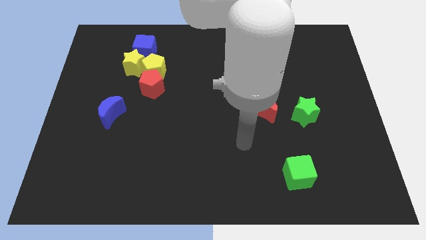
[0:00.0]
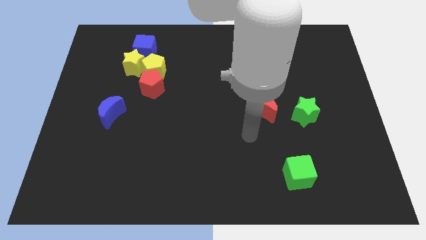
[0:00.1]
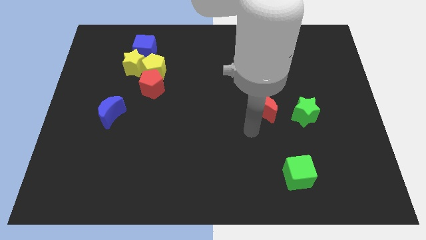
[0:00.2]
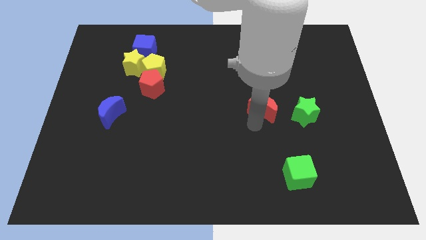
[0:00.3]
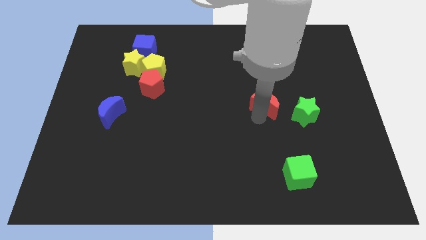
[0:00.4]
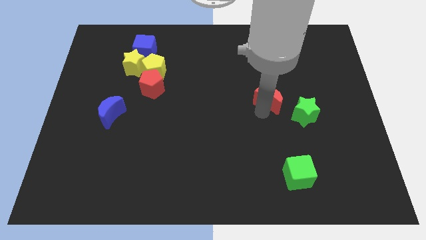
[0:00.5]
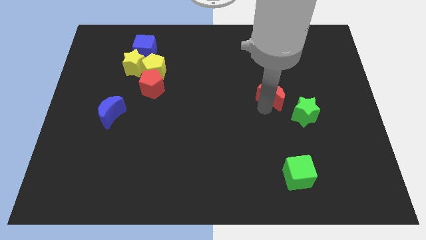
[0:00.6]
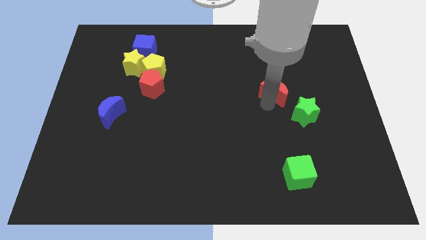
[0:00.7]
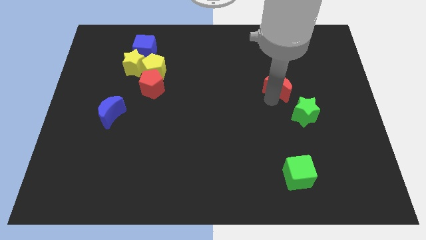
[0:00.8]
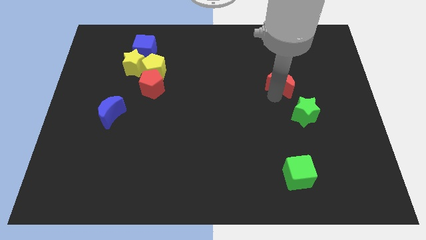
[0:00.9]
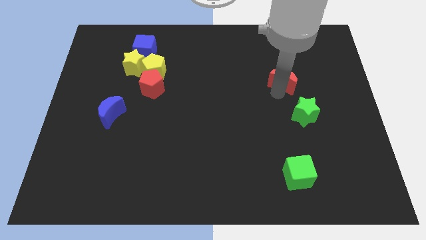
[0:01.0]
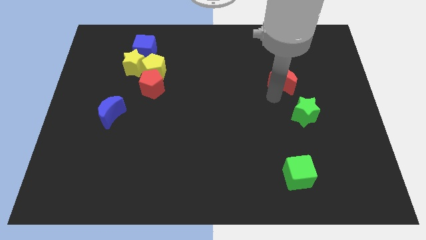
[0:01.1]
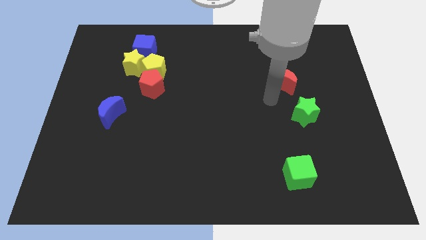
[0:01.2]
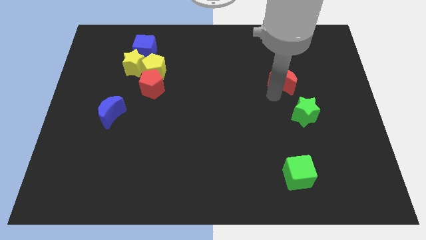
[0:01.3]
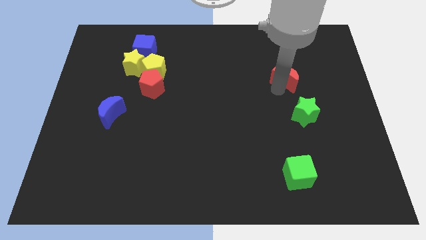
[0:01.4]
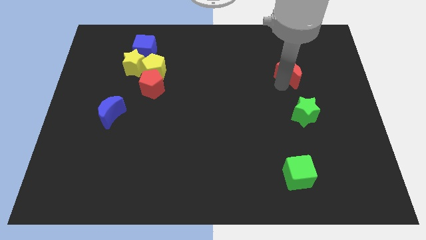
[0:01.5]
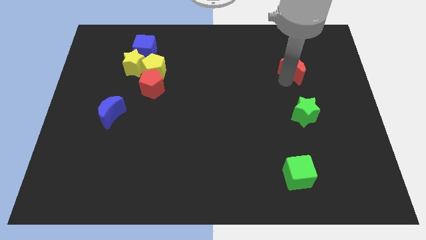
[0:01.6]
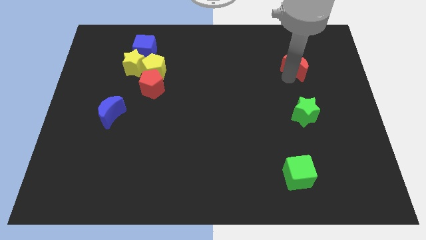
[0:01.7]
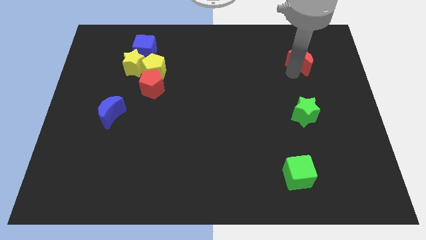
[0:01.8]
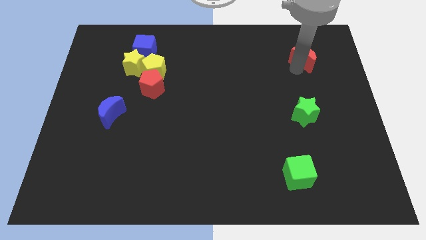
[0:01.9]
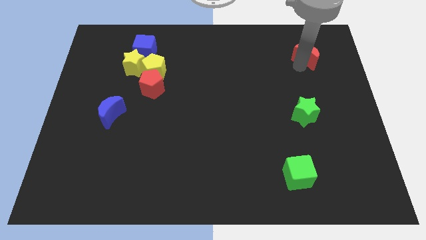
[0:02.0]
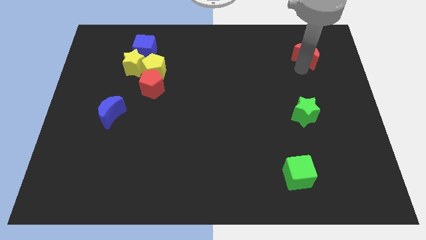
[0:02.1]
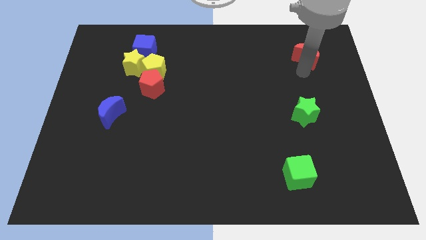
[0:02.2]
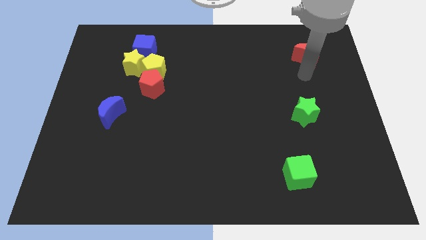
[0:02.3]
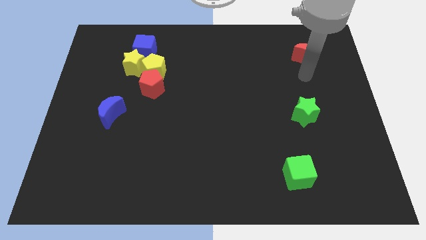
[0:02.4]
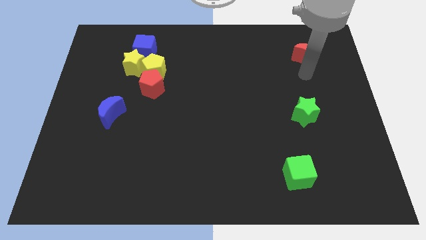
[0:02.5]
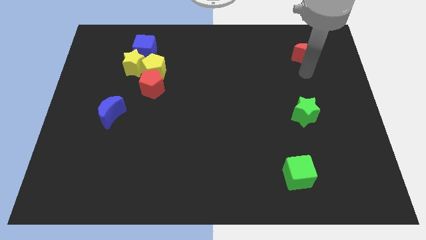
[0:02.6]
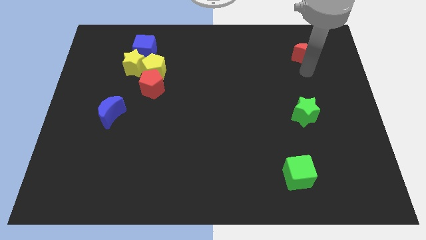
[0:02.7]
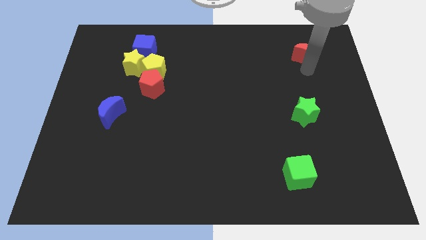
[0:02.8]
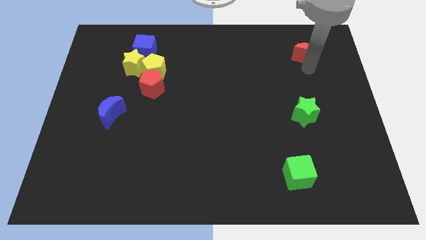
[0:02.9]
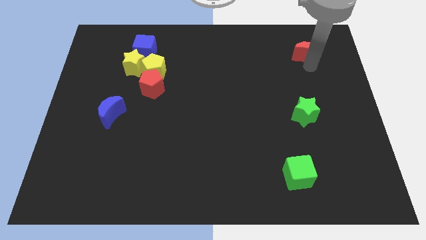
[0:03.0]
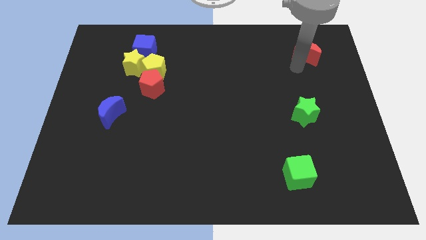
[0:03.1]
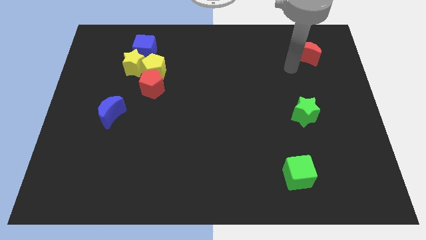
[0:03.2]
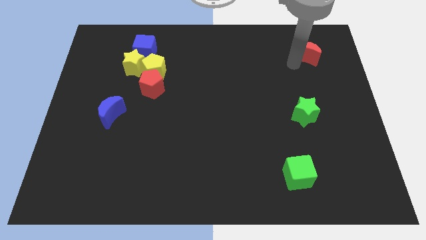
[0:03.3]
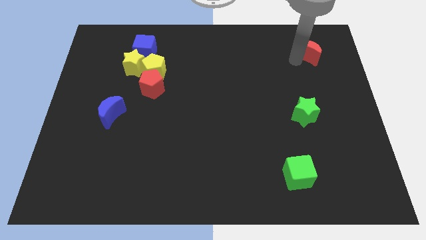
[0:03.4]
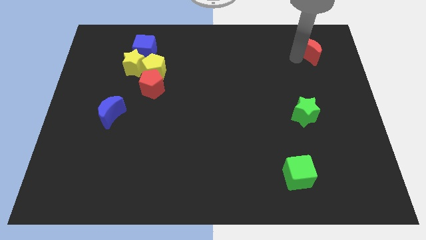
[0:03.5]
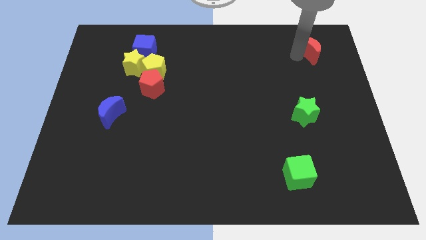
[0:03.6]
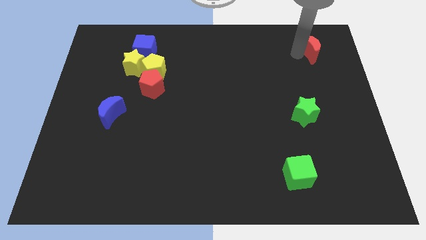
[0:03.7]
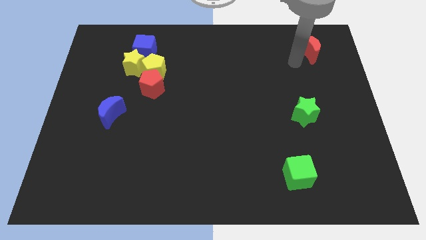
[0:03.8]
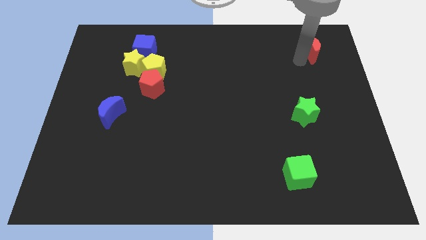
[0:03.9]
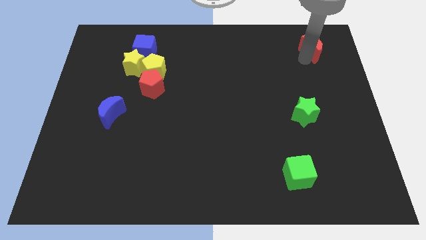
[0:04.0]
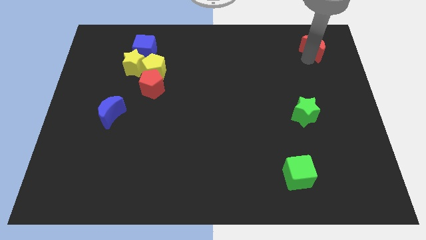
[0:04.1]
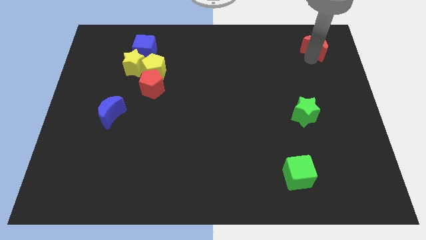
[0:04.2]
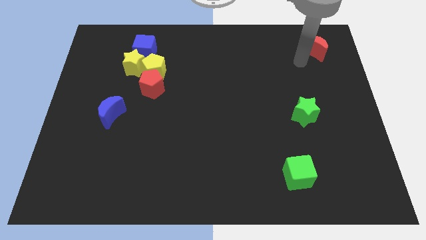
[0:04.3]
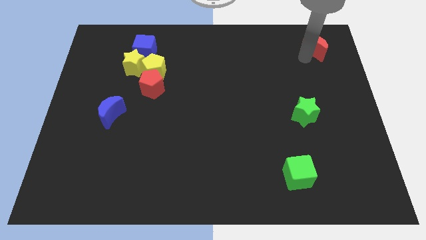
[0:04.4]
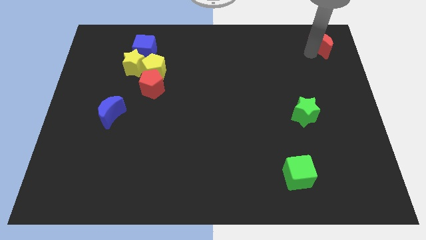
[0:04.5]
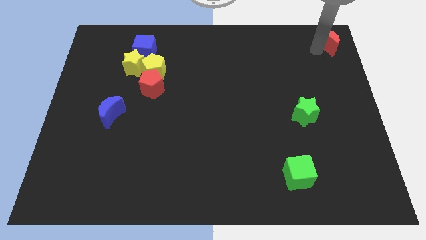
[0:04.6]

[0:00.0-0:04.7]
put the red moon to the top right corner

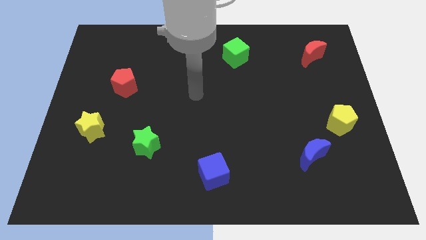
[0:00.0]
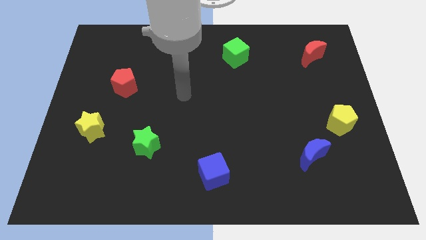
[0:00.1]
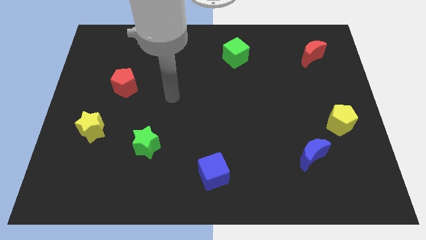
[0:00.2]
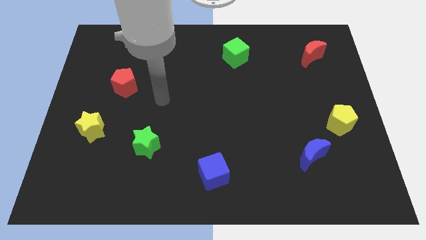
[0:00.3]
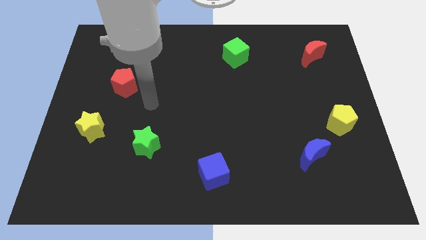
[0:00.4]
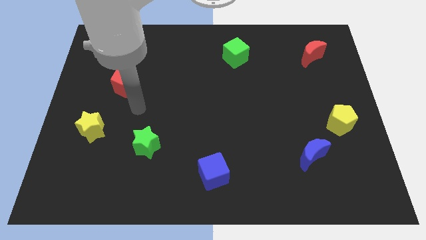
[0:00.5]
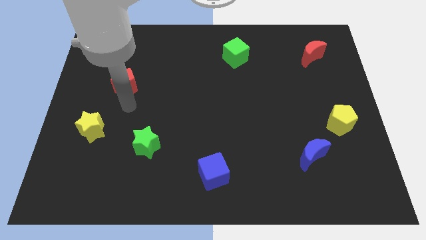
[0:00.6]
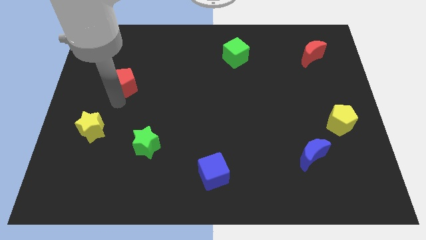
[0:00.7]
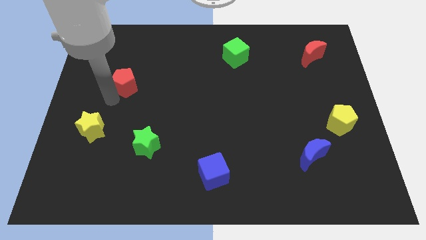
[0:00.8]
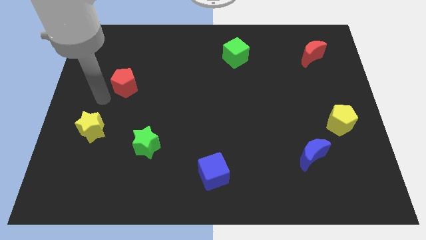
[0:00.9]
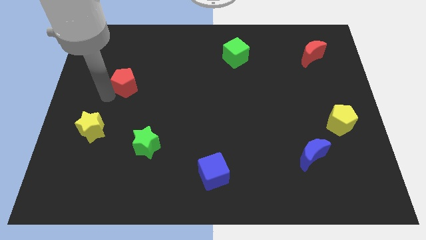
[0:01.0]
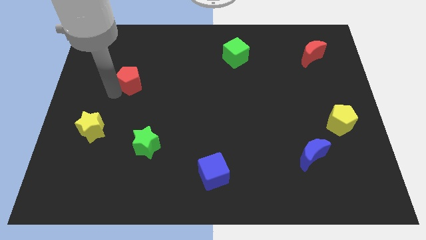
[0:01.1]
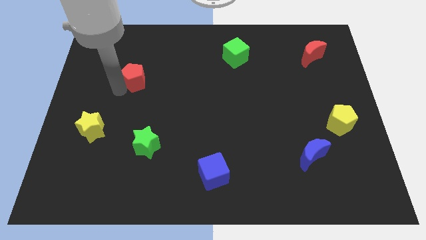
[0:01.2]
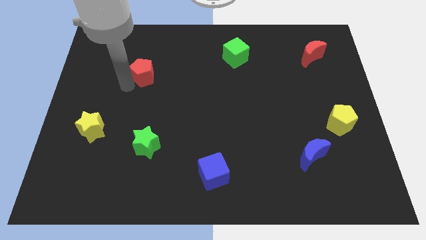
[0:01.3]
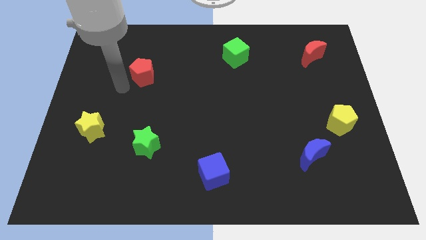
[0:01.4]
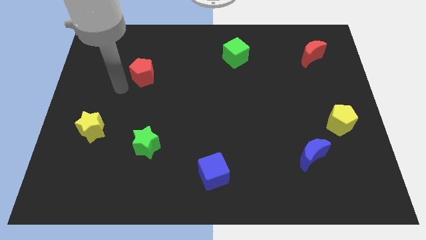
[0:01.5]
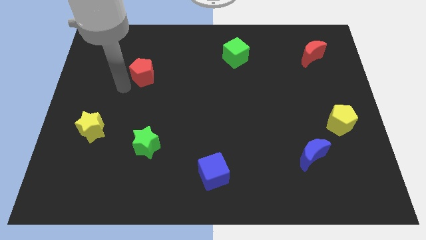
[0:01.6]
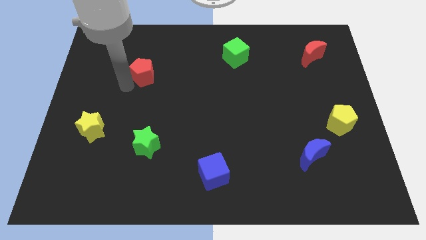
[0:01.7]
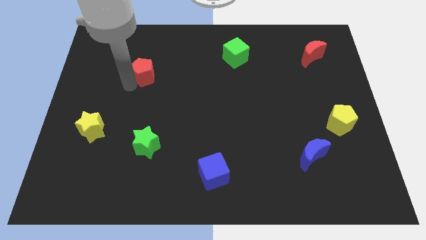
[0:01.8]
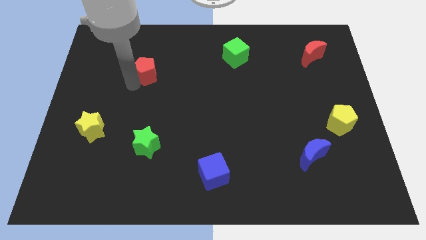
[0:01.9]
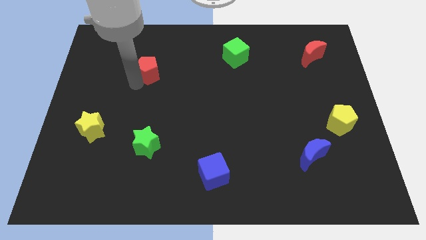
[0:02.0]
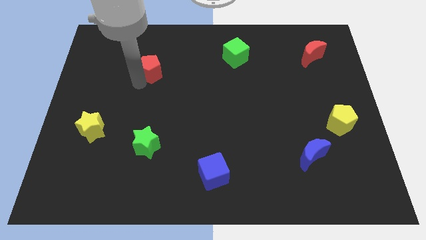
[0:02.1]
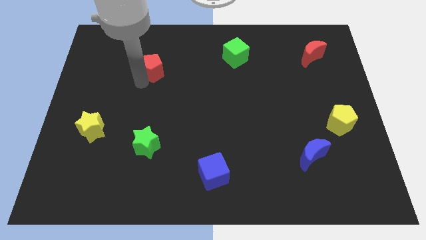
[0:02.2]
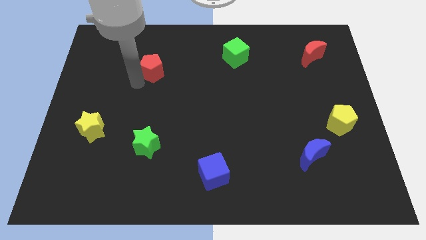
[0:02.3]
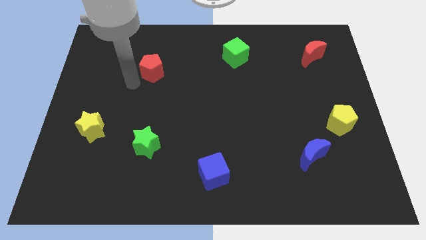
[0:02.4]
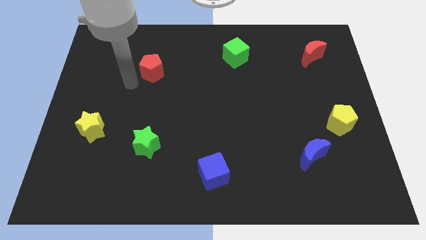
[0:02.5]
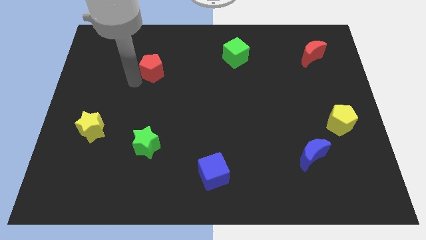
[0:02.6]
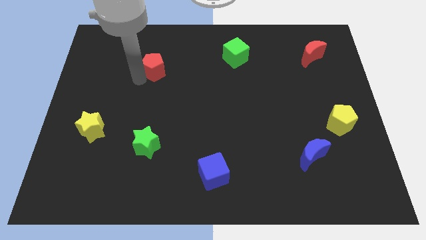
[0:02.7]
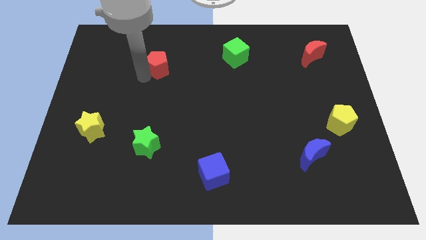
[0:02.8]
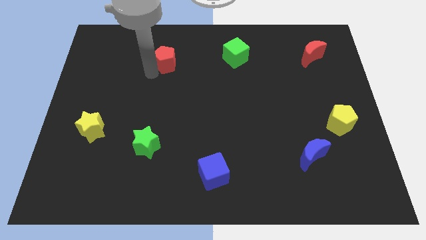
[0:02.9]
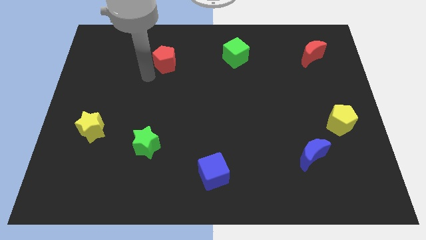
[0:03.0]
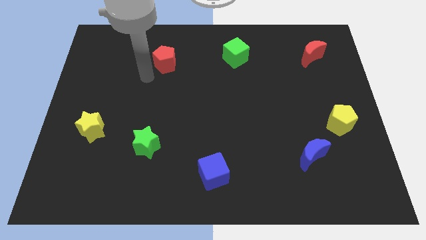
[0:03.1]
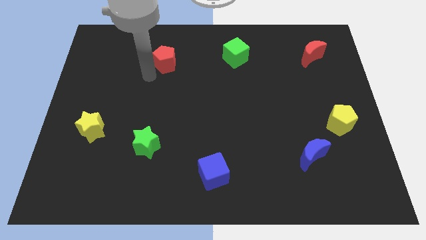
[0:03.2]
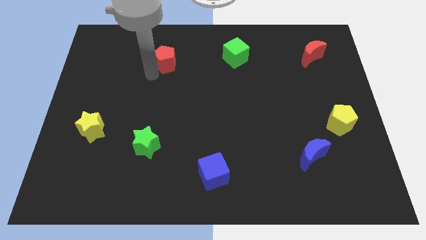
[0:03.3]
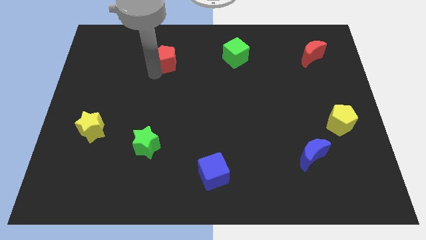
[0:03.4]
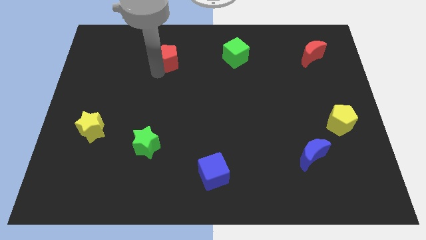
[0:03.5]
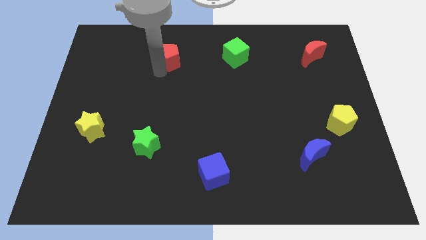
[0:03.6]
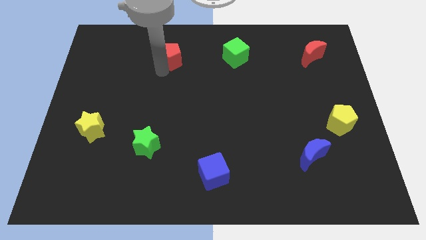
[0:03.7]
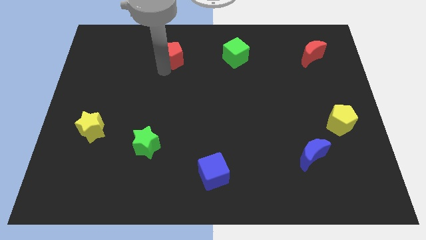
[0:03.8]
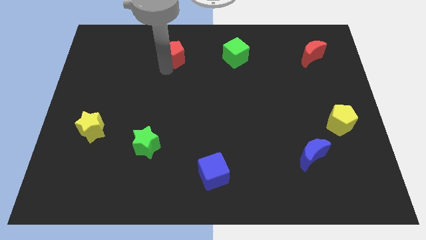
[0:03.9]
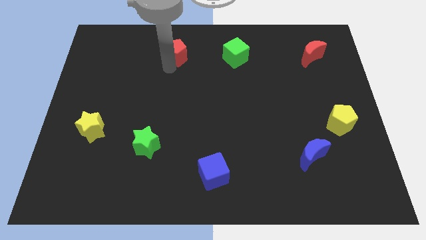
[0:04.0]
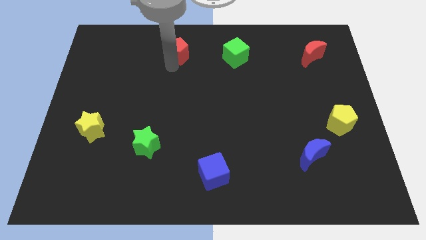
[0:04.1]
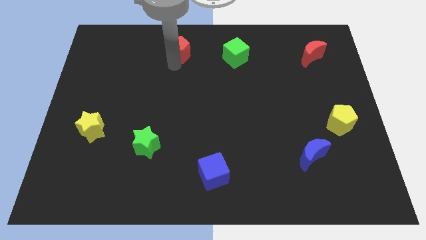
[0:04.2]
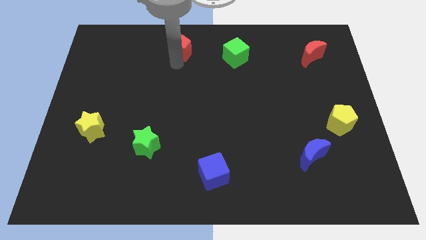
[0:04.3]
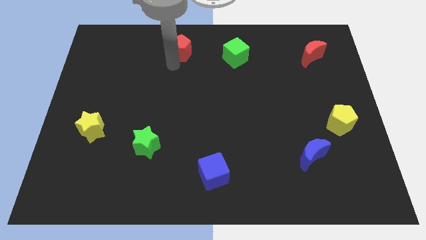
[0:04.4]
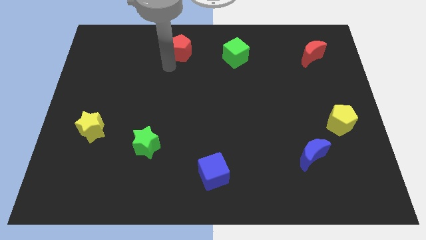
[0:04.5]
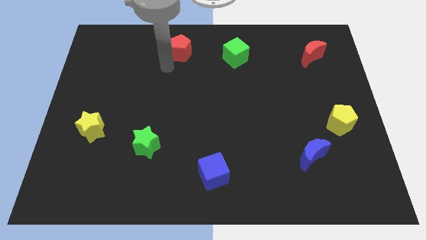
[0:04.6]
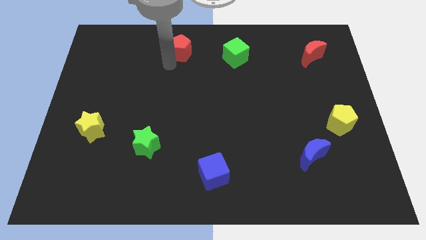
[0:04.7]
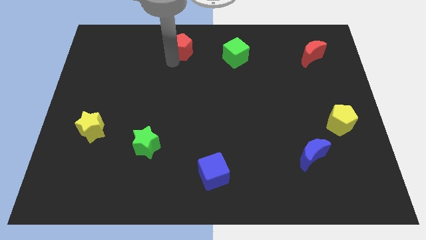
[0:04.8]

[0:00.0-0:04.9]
push the red pentagon to the top side
